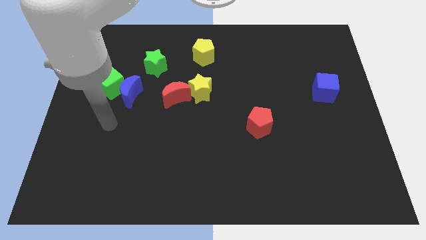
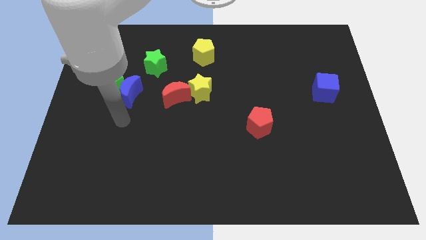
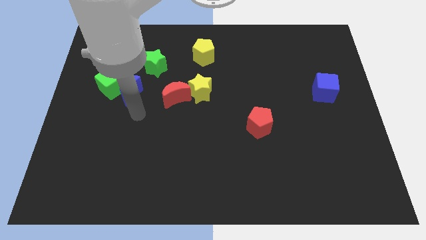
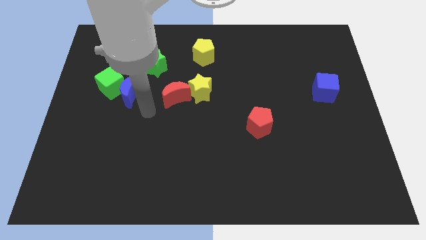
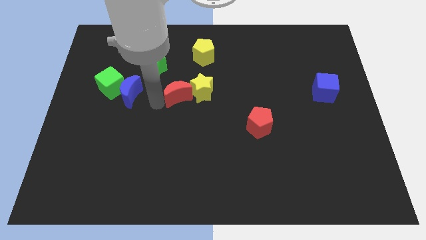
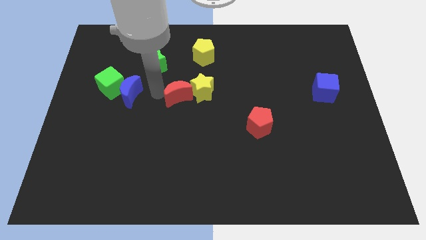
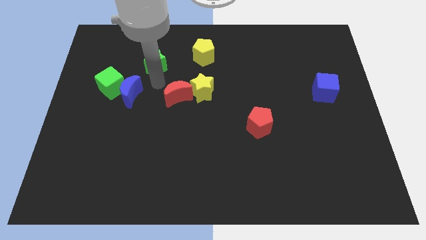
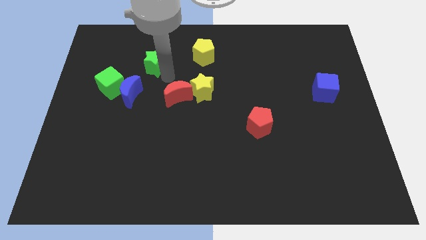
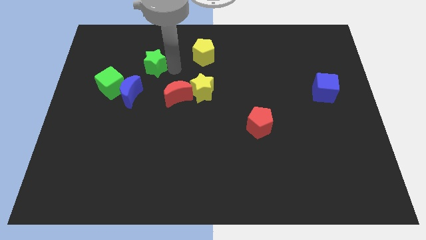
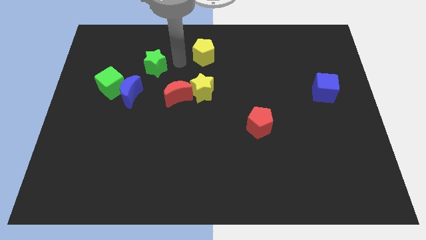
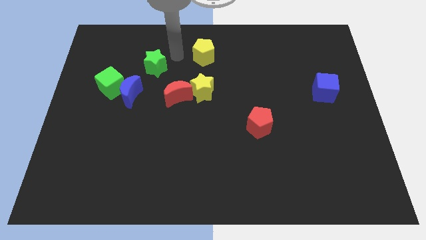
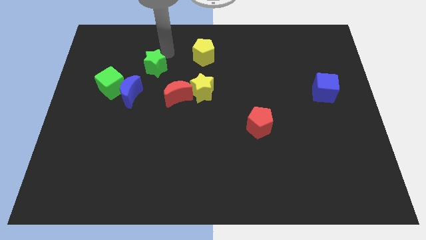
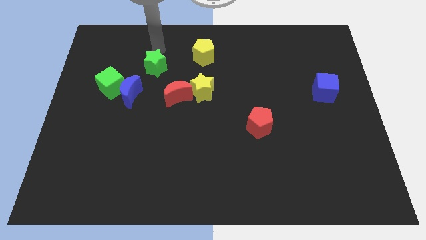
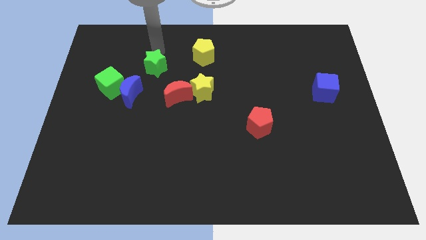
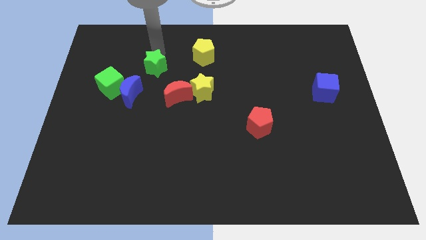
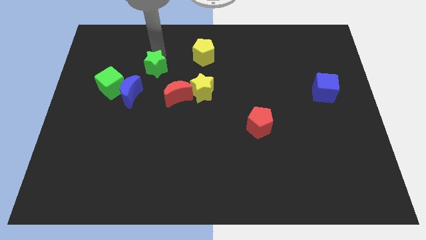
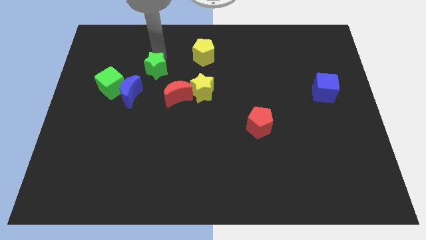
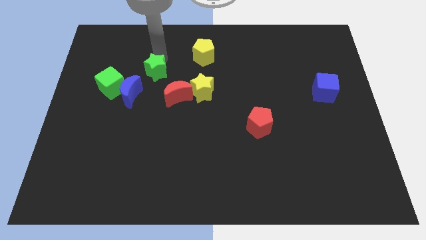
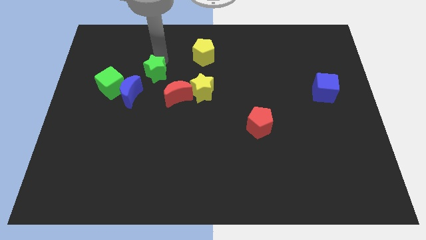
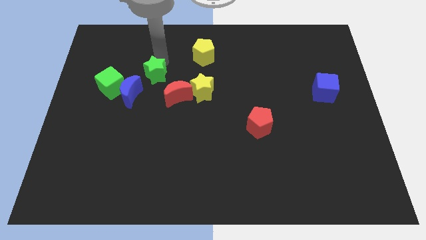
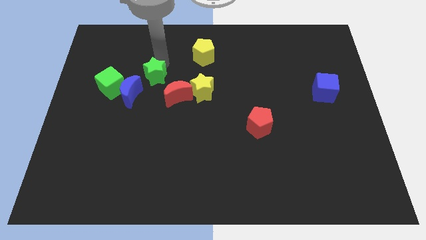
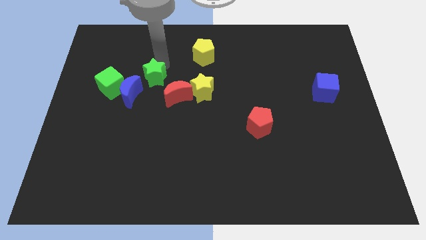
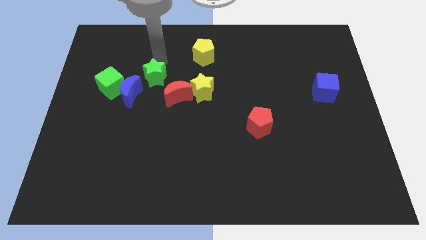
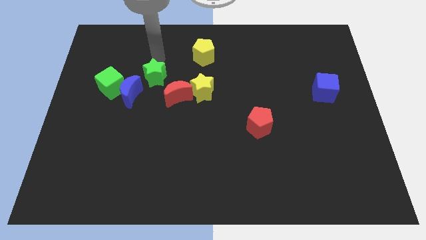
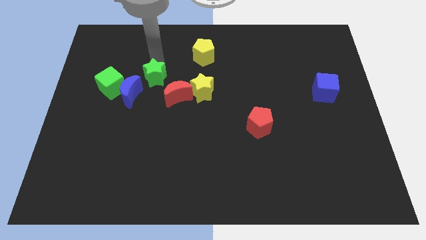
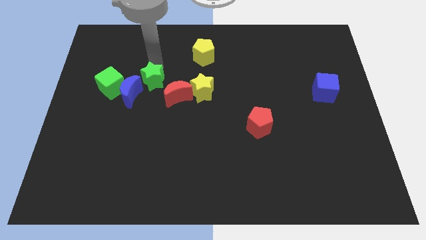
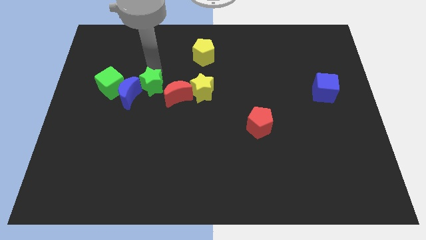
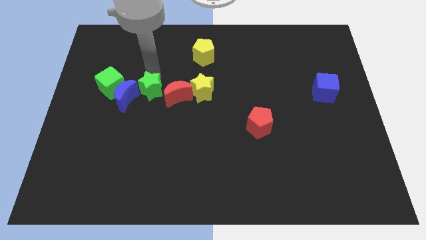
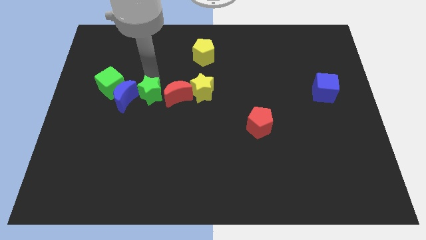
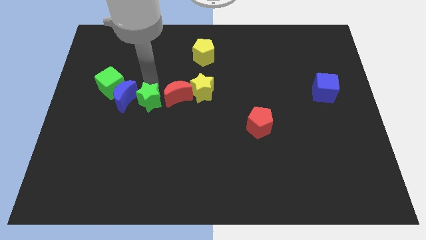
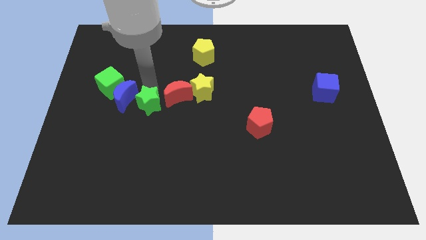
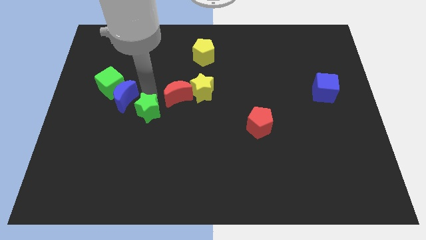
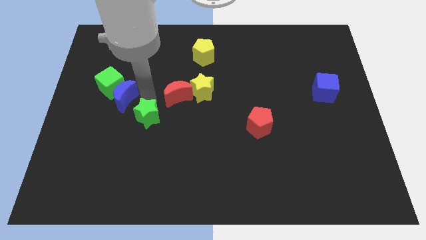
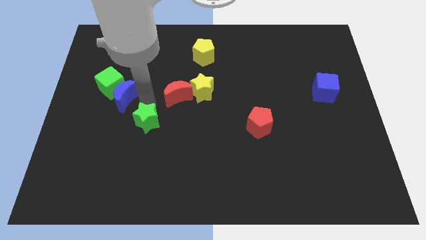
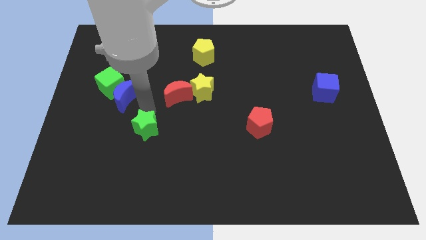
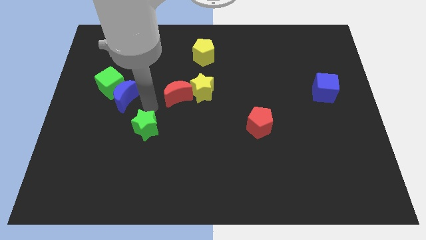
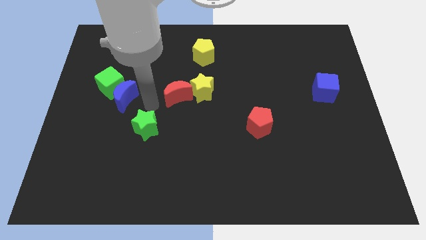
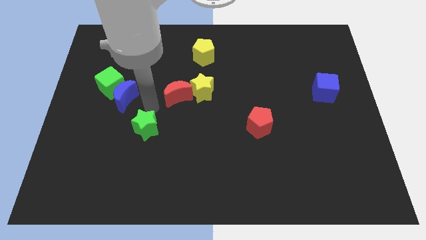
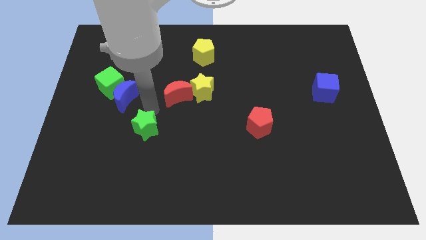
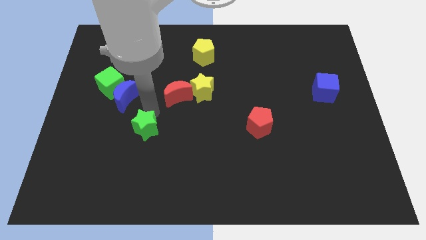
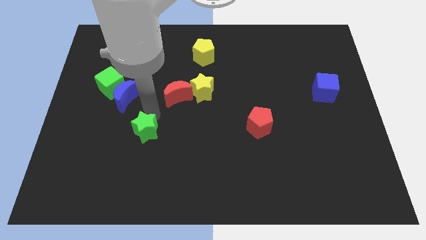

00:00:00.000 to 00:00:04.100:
move the green star down

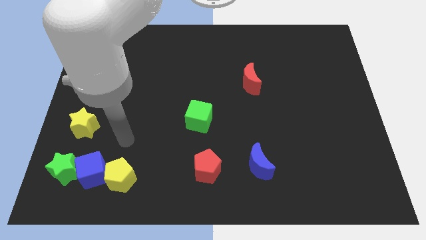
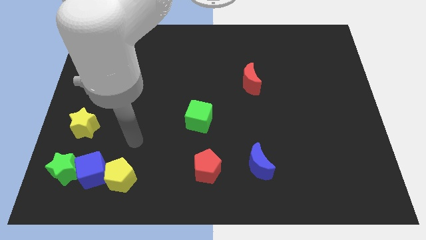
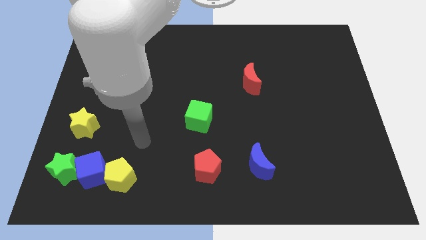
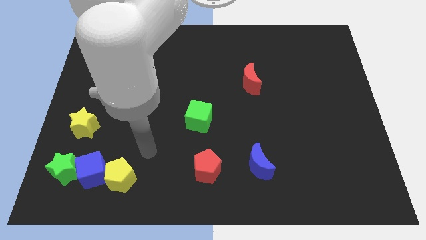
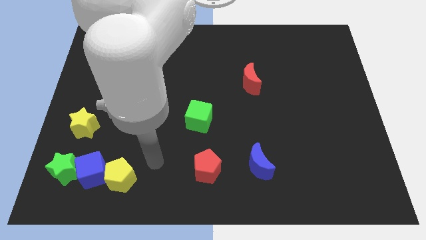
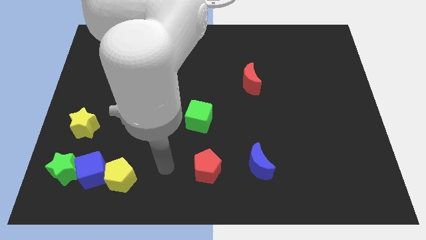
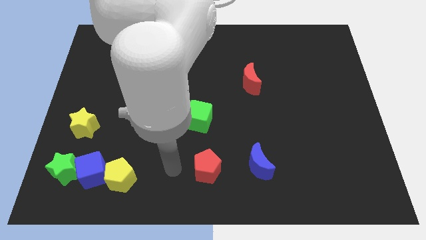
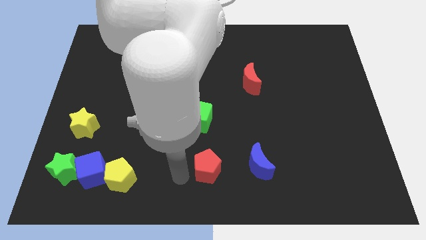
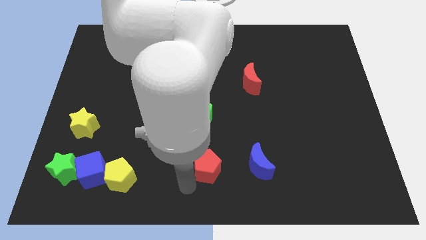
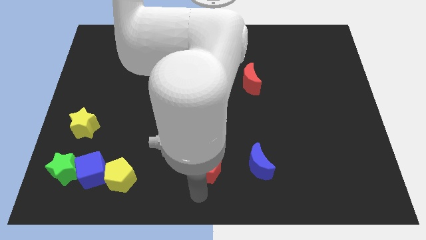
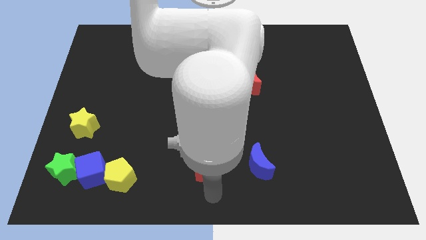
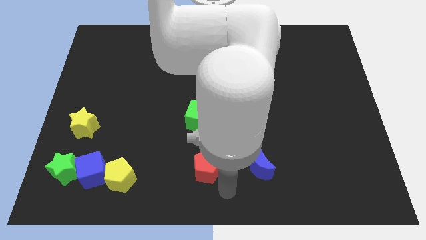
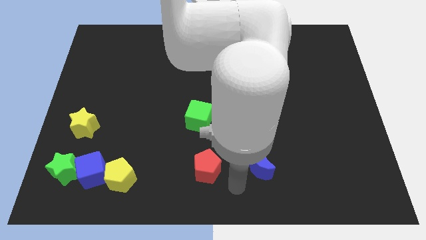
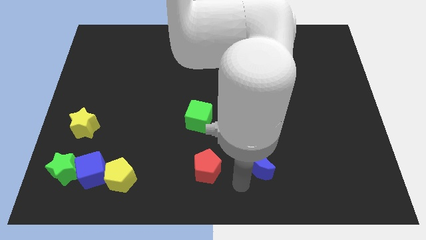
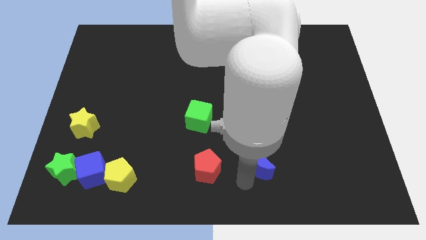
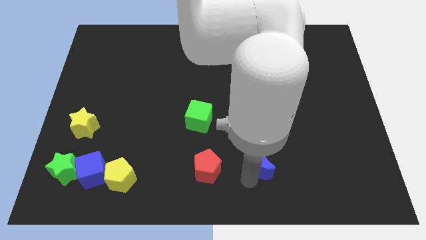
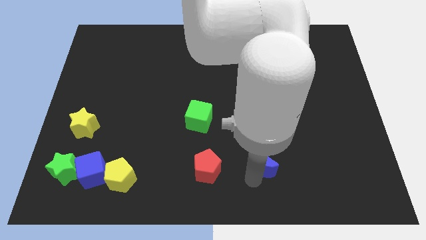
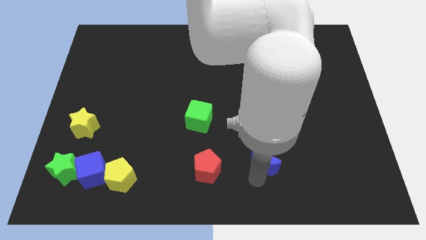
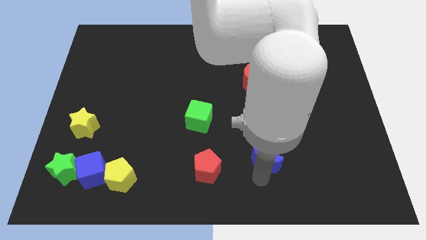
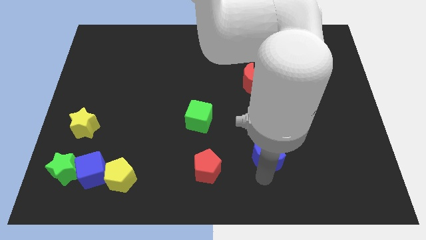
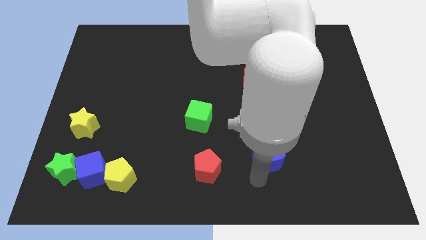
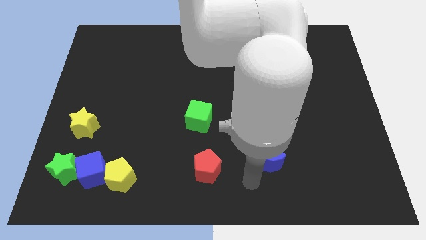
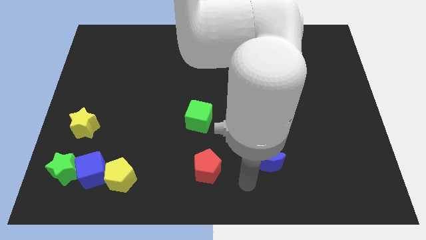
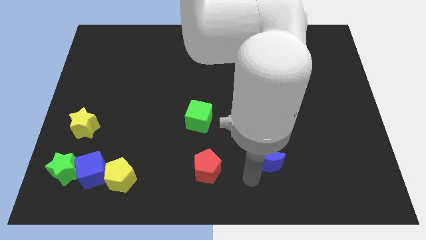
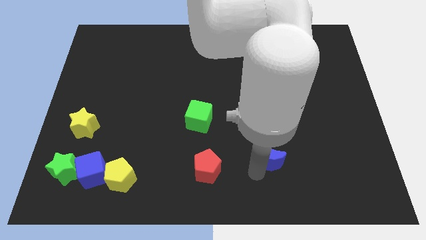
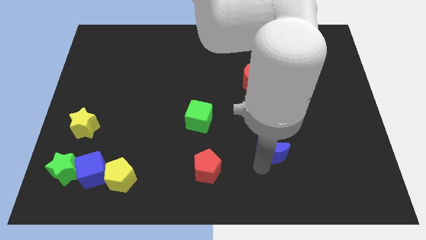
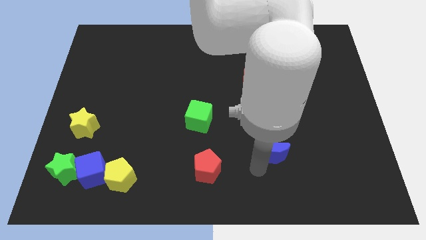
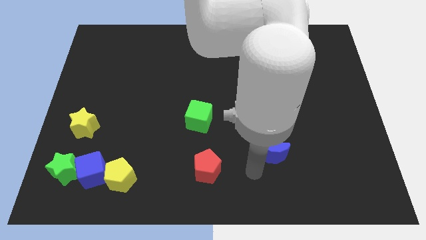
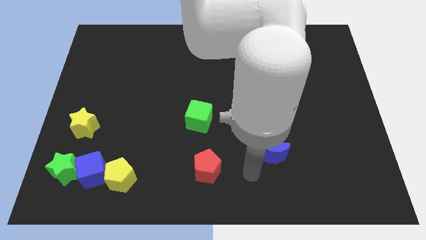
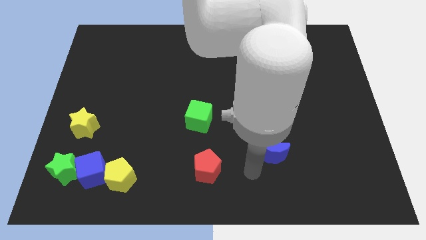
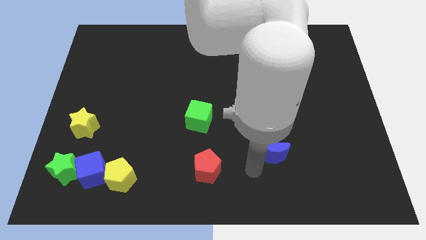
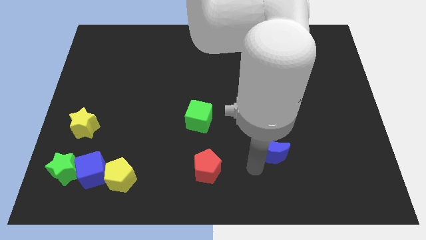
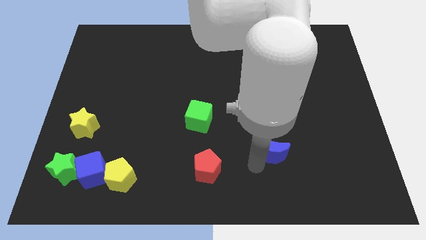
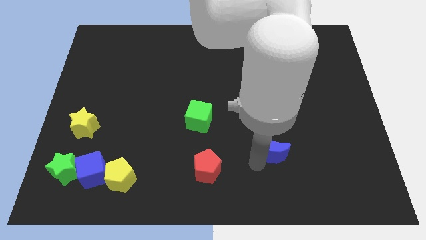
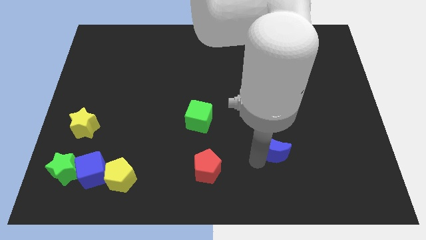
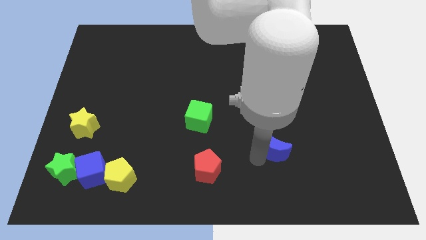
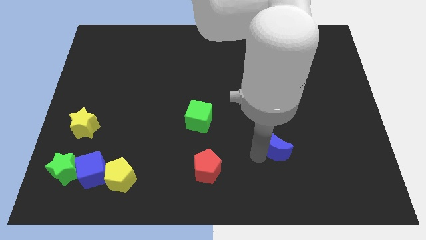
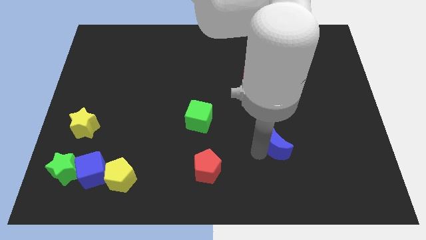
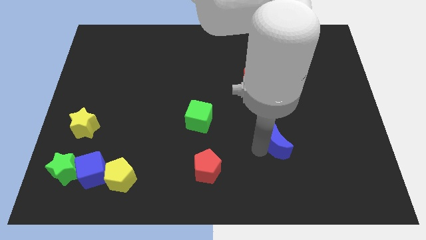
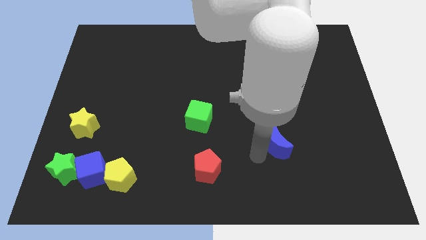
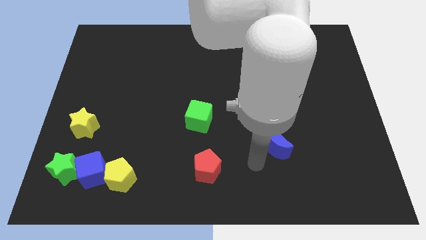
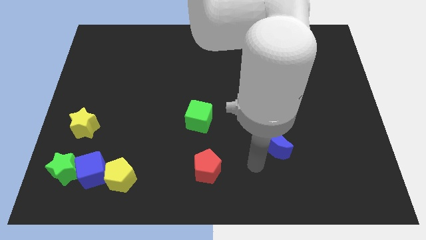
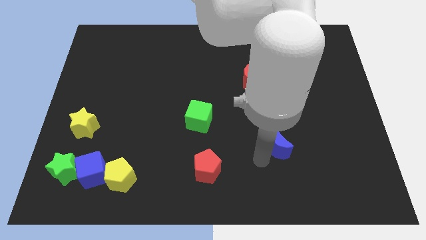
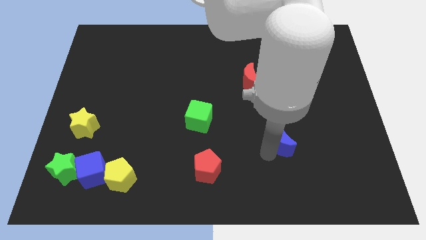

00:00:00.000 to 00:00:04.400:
move the blue moon a little bit up and then to the right
